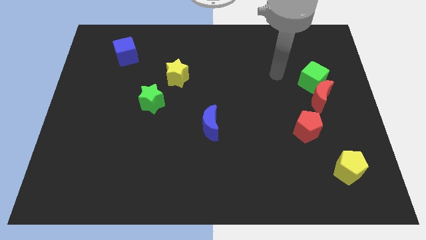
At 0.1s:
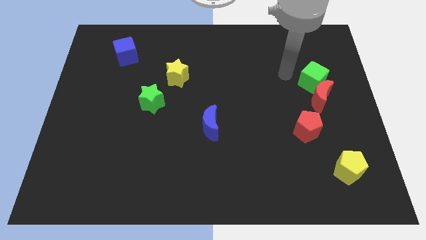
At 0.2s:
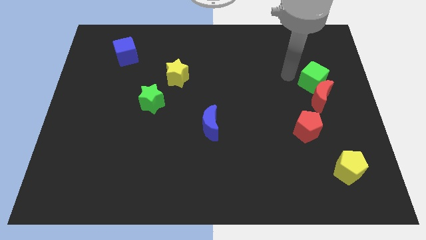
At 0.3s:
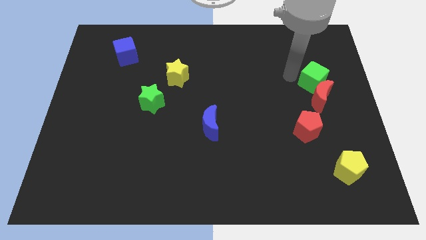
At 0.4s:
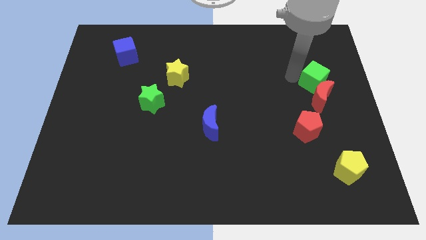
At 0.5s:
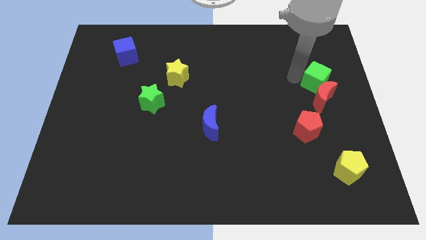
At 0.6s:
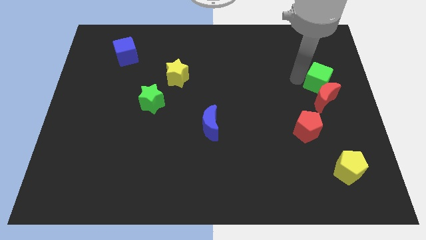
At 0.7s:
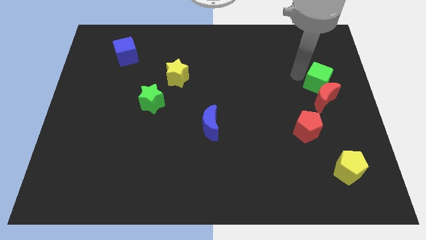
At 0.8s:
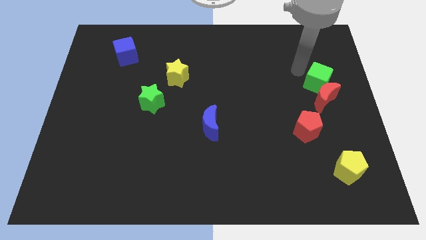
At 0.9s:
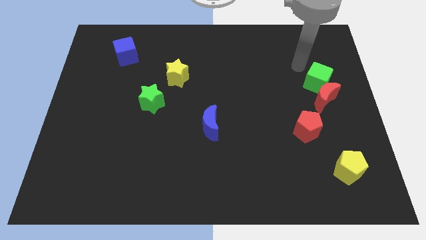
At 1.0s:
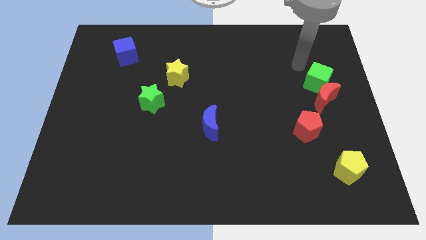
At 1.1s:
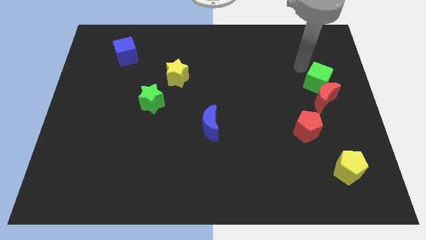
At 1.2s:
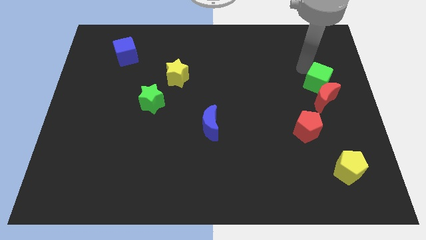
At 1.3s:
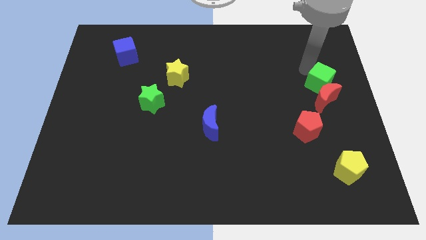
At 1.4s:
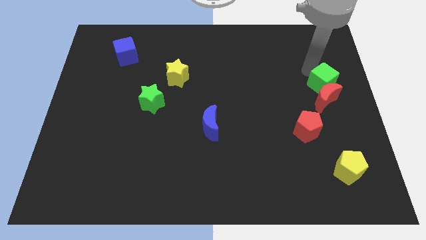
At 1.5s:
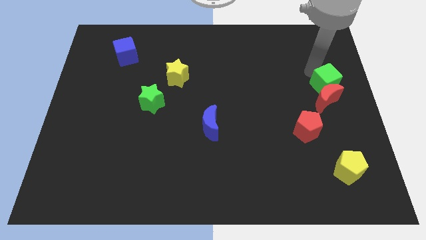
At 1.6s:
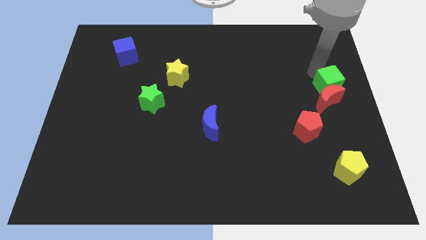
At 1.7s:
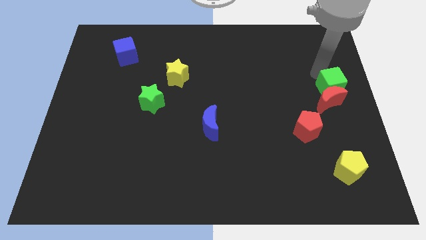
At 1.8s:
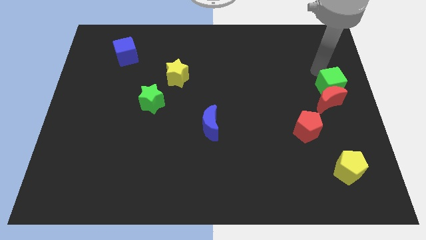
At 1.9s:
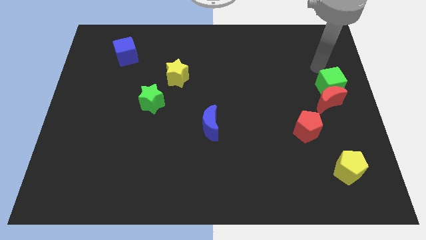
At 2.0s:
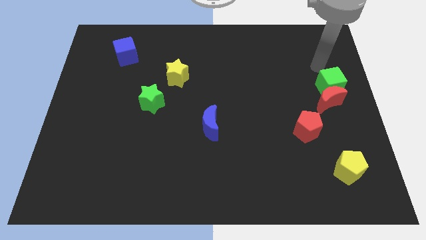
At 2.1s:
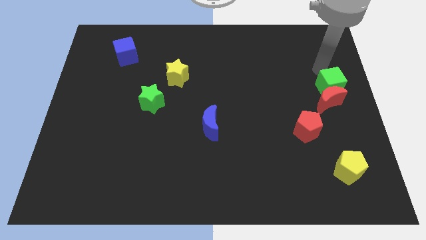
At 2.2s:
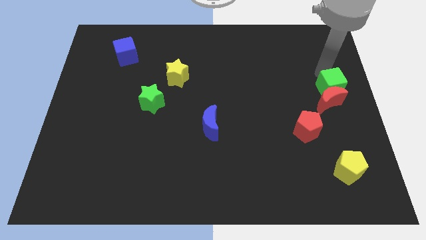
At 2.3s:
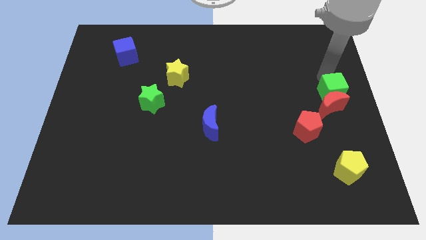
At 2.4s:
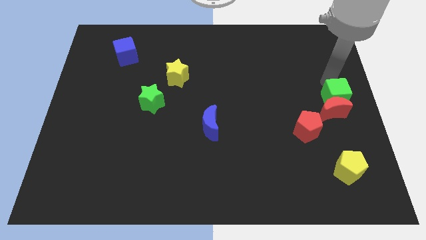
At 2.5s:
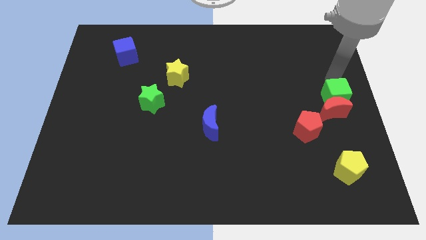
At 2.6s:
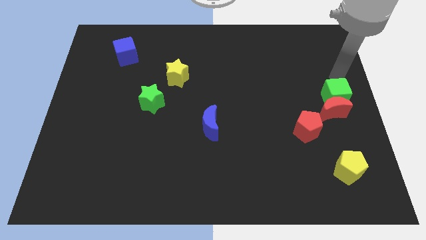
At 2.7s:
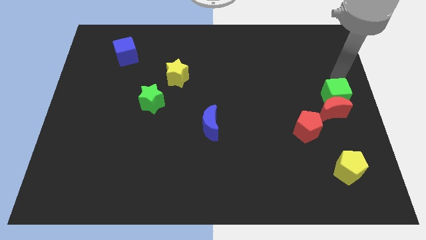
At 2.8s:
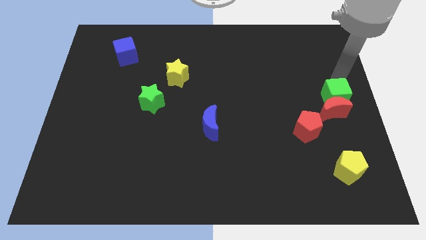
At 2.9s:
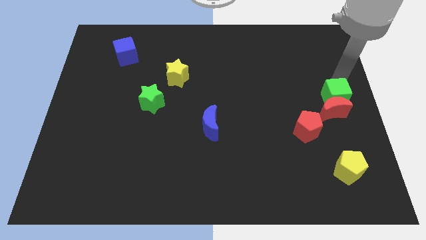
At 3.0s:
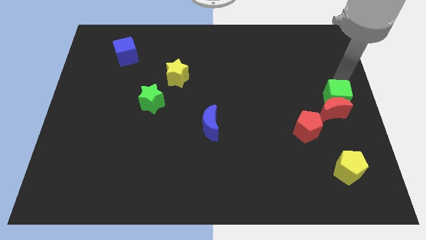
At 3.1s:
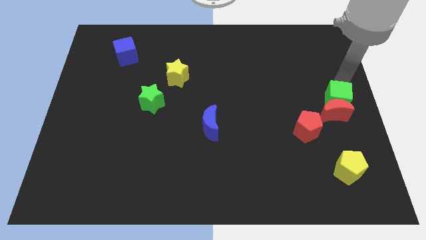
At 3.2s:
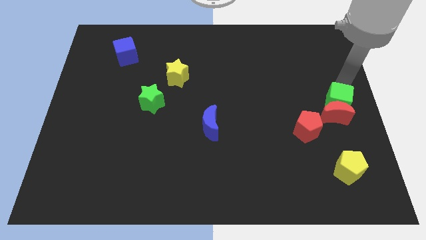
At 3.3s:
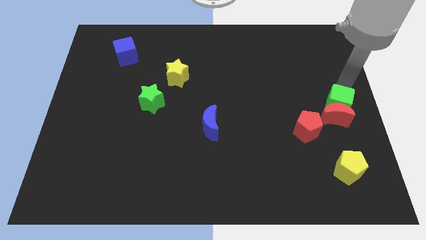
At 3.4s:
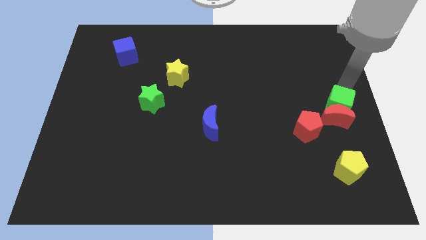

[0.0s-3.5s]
slightly move the green cube downwards

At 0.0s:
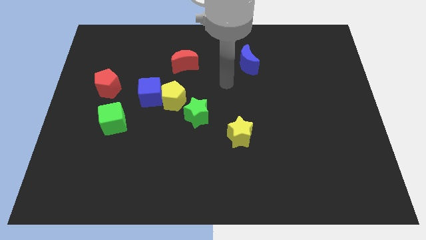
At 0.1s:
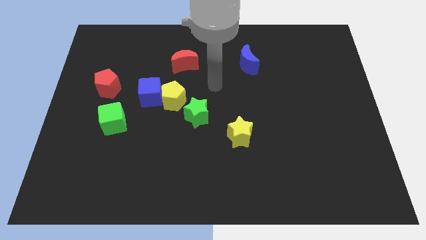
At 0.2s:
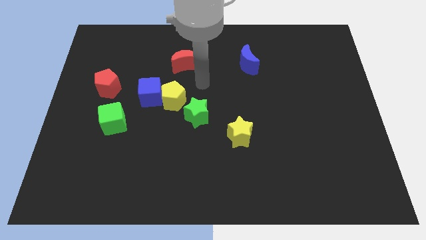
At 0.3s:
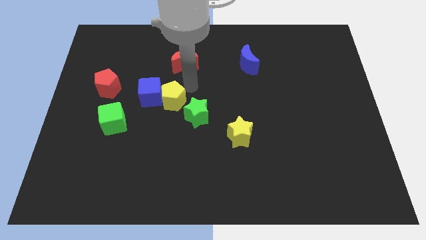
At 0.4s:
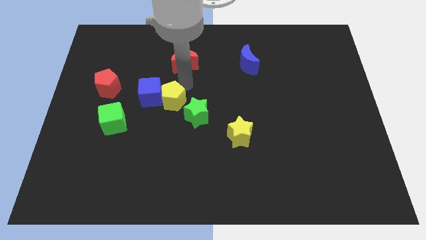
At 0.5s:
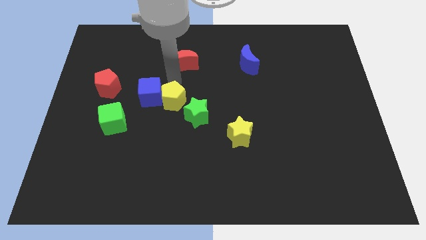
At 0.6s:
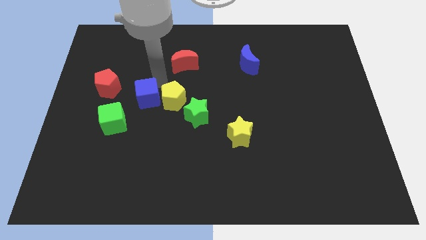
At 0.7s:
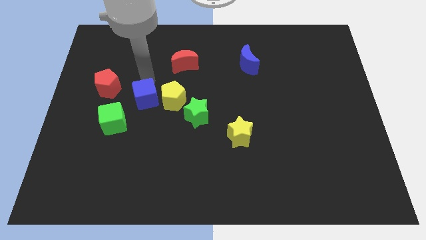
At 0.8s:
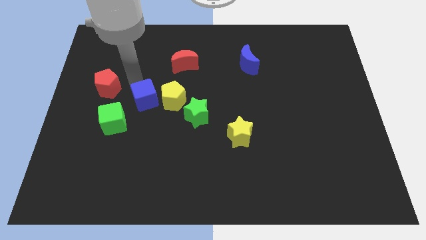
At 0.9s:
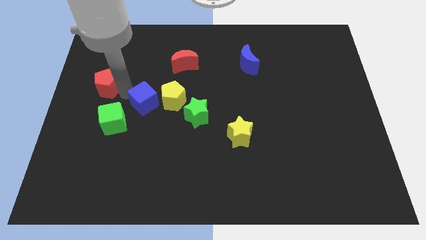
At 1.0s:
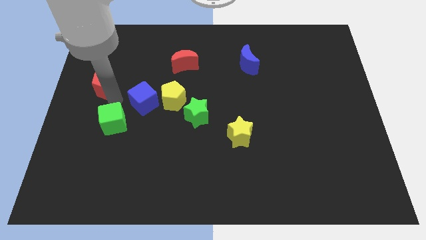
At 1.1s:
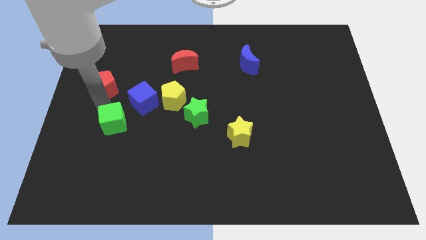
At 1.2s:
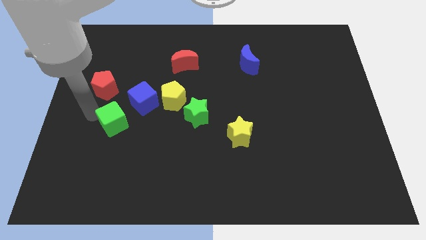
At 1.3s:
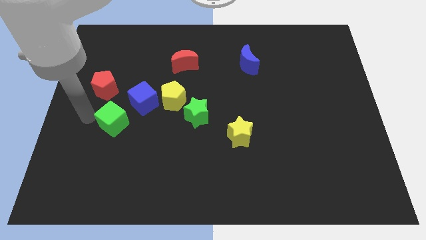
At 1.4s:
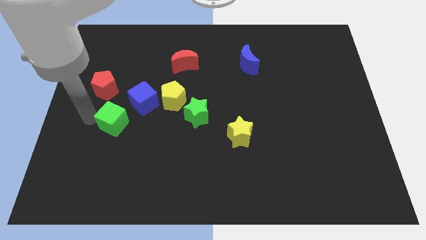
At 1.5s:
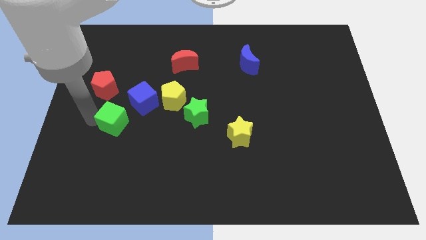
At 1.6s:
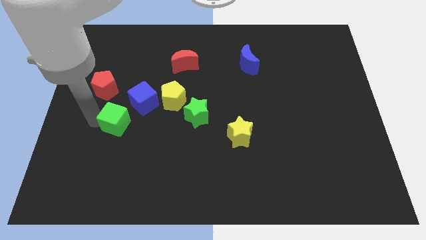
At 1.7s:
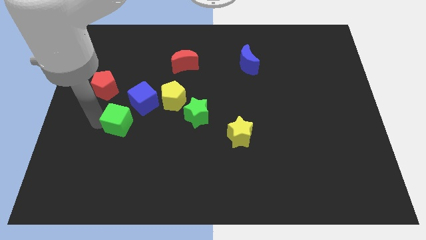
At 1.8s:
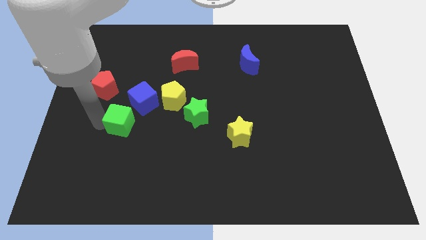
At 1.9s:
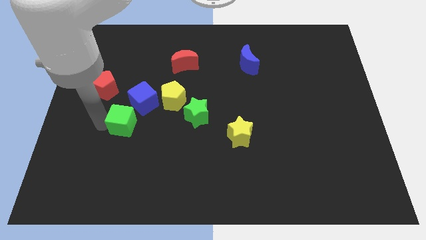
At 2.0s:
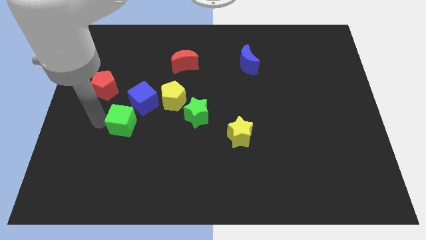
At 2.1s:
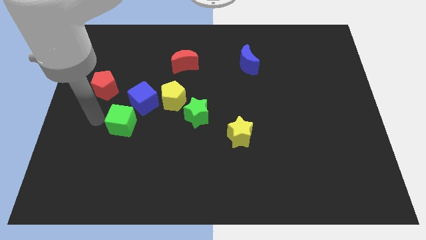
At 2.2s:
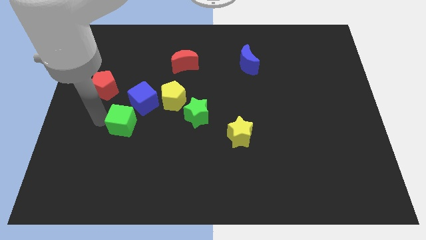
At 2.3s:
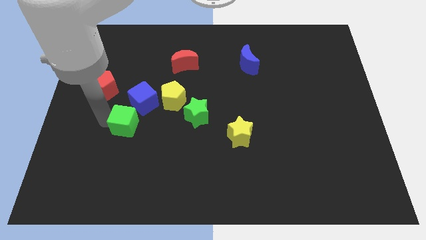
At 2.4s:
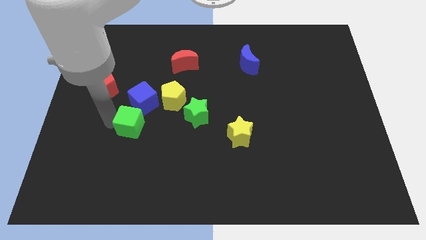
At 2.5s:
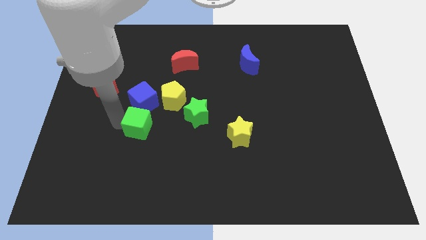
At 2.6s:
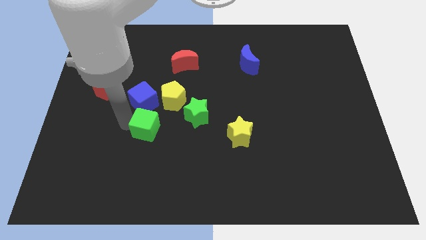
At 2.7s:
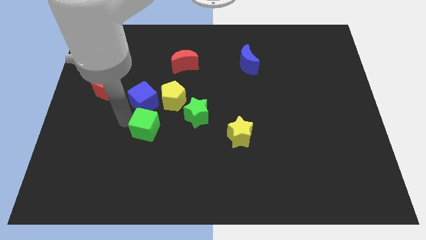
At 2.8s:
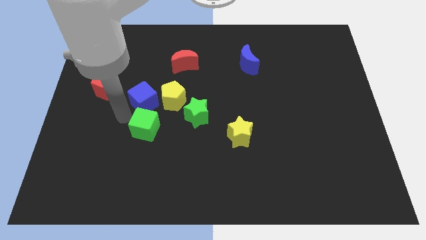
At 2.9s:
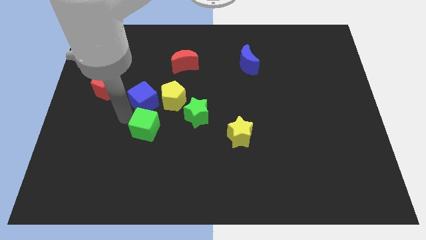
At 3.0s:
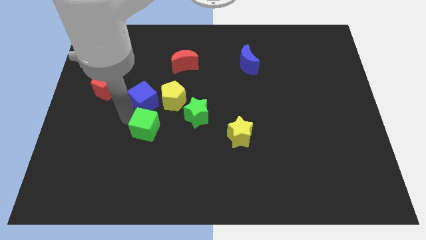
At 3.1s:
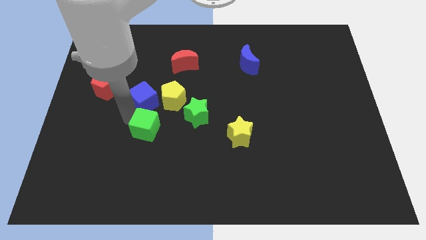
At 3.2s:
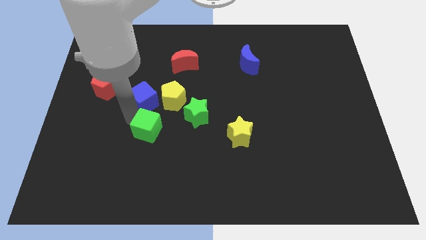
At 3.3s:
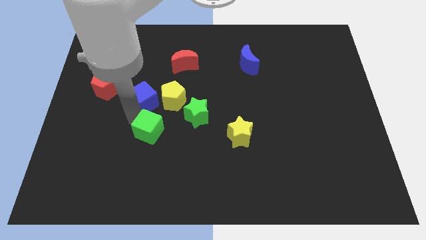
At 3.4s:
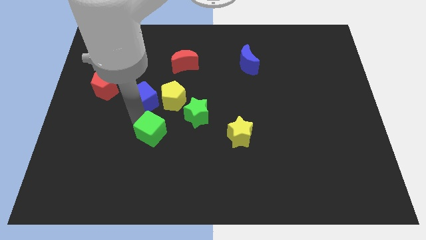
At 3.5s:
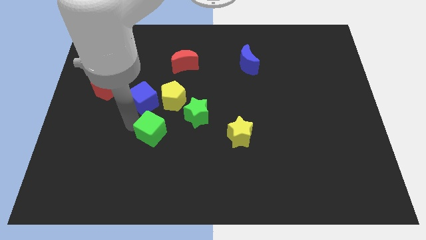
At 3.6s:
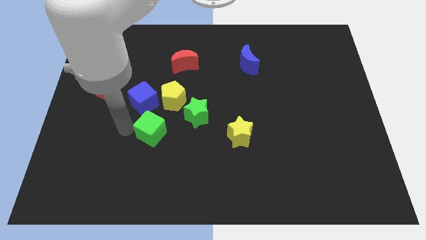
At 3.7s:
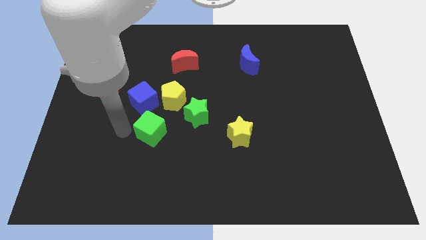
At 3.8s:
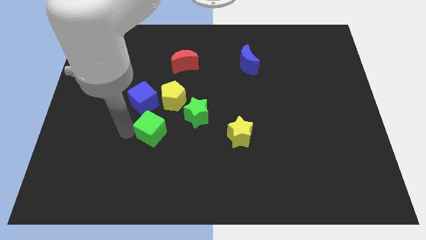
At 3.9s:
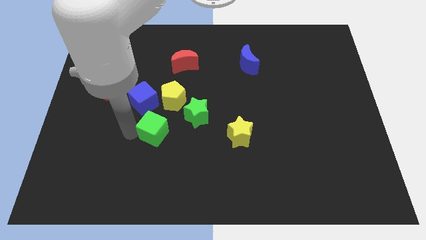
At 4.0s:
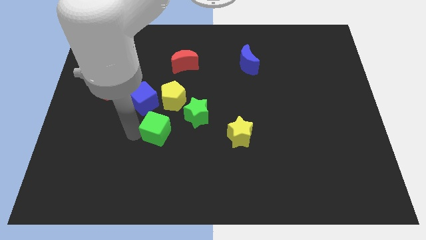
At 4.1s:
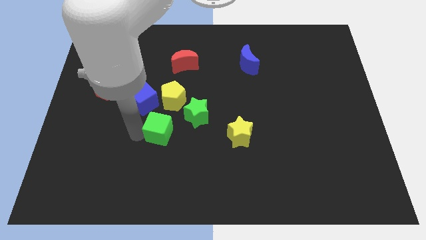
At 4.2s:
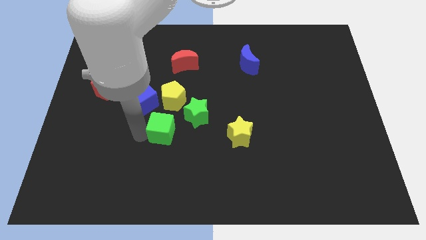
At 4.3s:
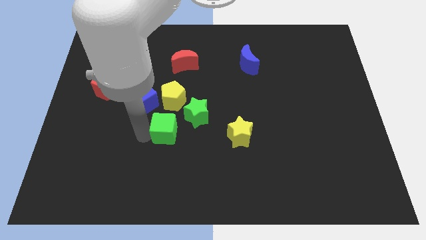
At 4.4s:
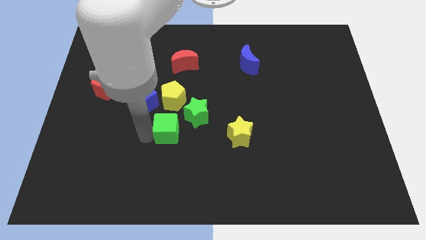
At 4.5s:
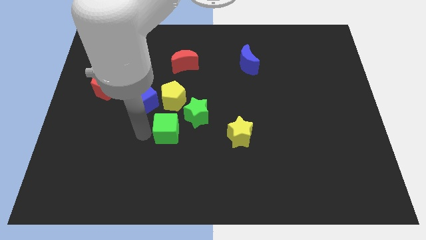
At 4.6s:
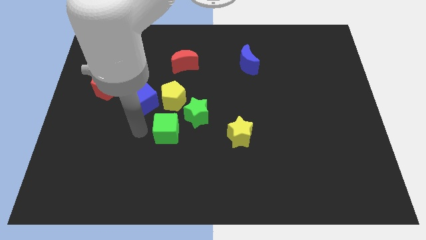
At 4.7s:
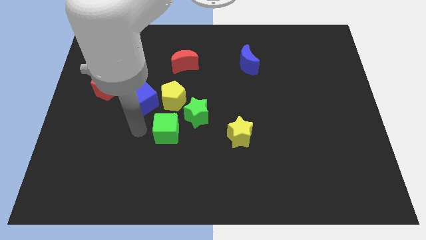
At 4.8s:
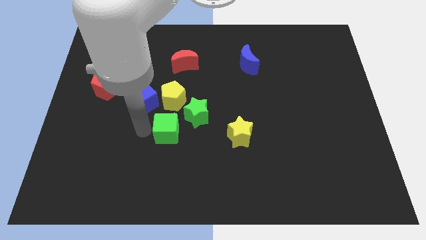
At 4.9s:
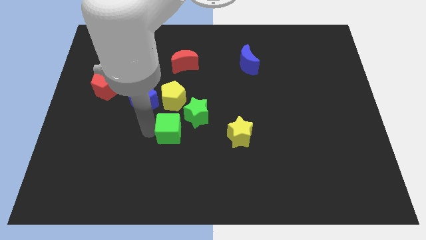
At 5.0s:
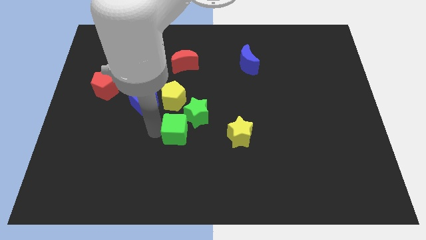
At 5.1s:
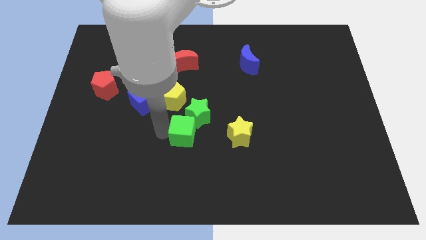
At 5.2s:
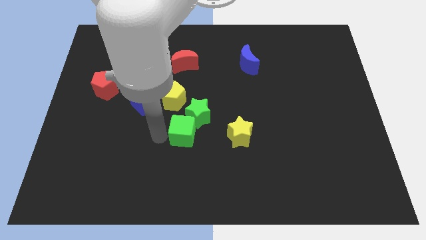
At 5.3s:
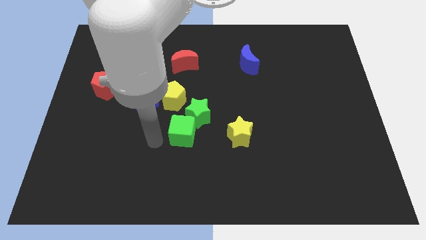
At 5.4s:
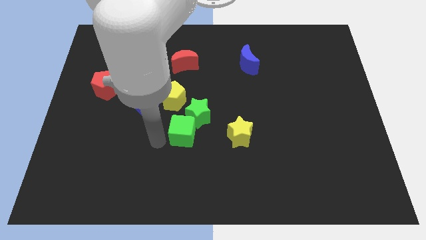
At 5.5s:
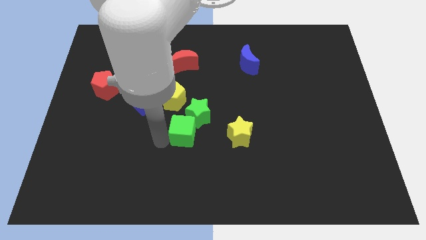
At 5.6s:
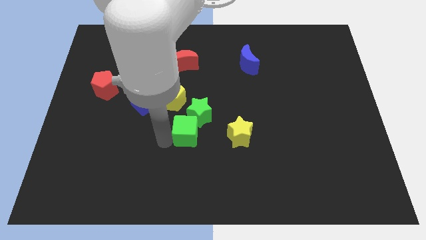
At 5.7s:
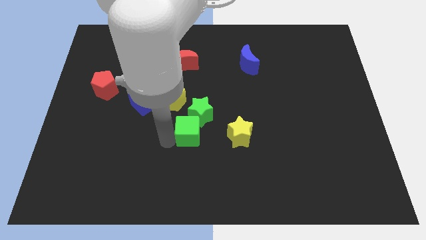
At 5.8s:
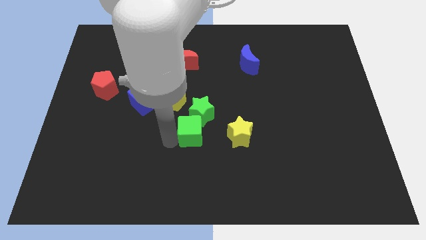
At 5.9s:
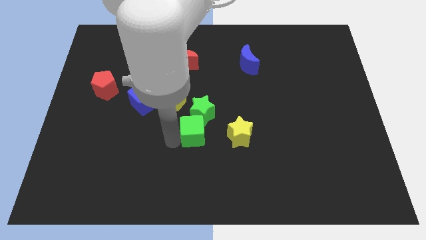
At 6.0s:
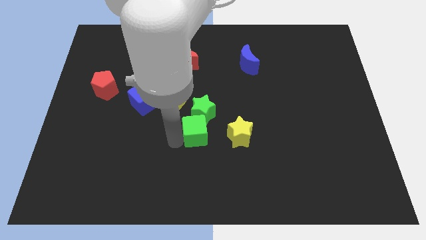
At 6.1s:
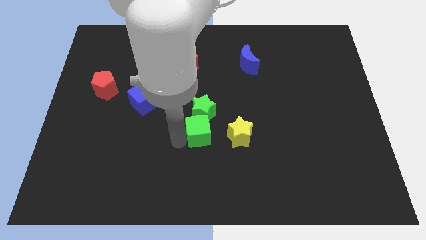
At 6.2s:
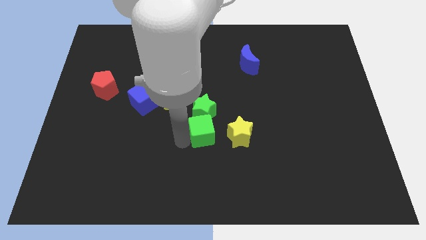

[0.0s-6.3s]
slide the green cube right
